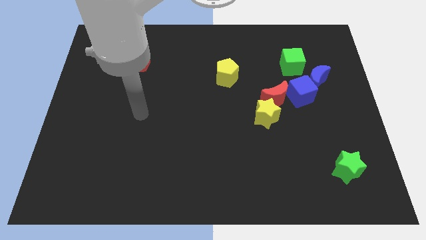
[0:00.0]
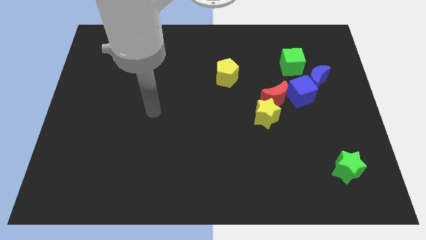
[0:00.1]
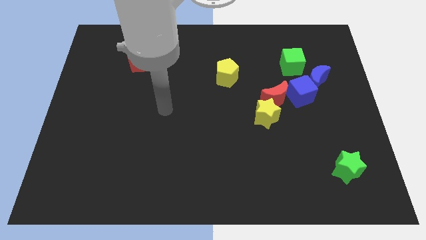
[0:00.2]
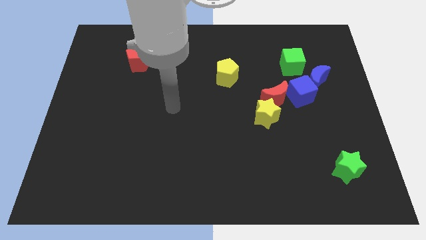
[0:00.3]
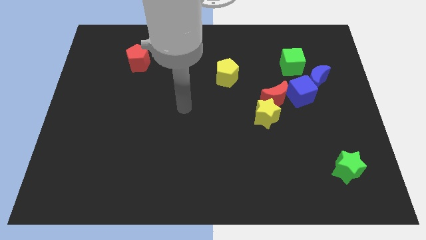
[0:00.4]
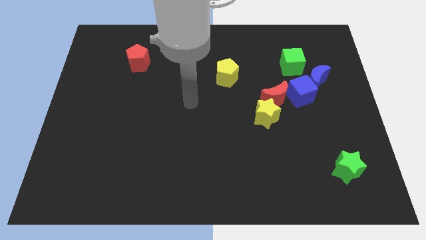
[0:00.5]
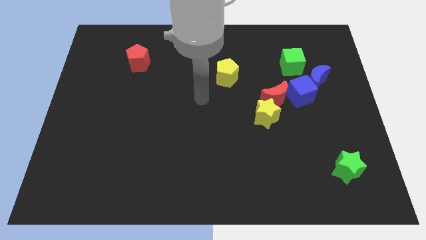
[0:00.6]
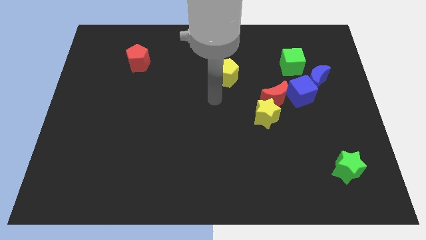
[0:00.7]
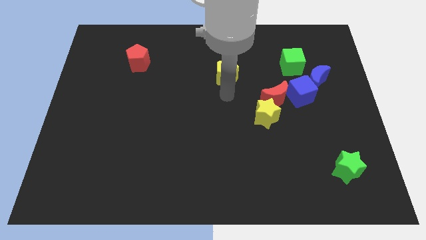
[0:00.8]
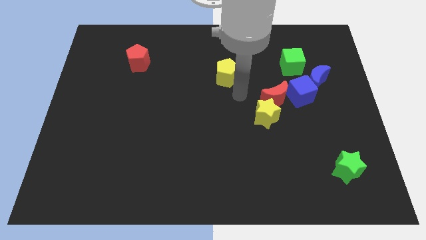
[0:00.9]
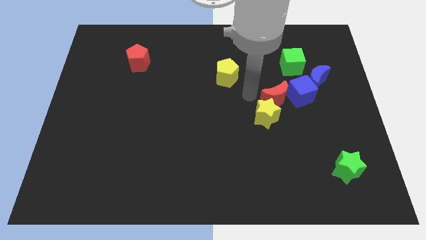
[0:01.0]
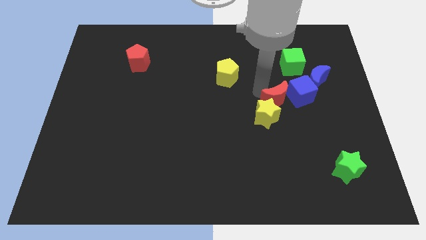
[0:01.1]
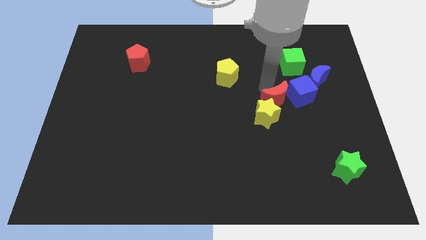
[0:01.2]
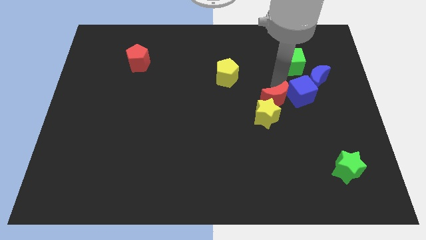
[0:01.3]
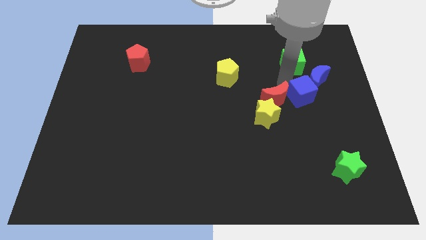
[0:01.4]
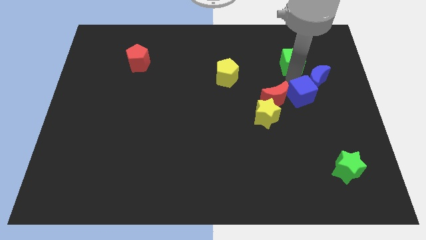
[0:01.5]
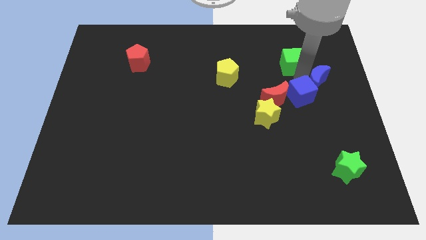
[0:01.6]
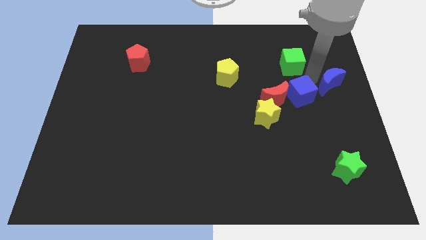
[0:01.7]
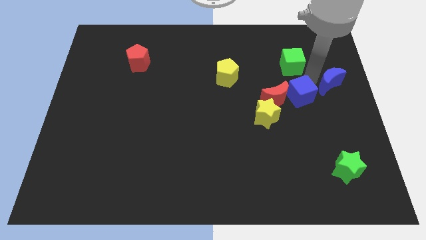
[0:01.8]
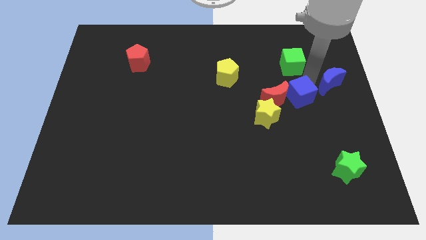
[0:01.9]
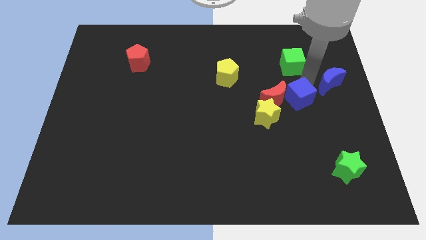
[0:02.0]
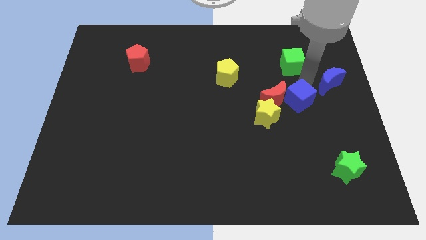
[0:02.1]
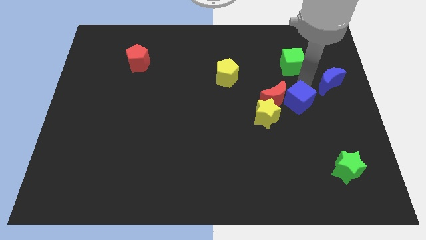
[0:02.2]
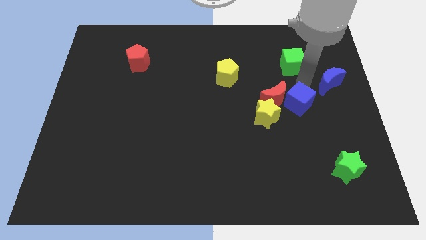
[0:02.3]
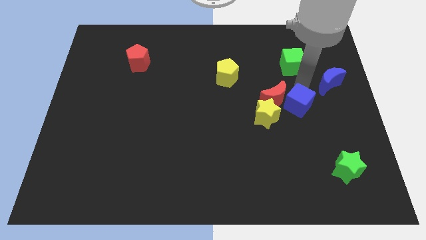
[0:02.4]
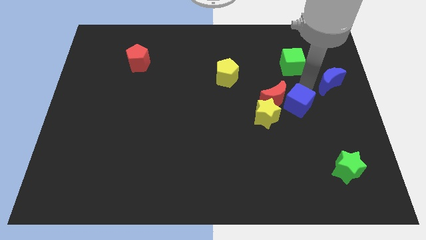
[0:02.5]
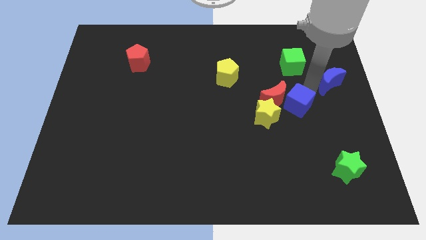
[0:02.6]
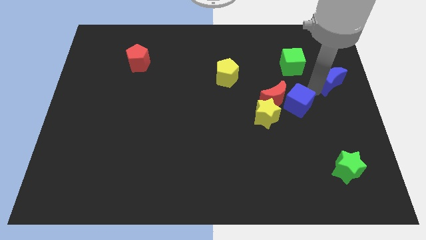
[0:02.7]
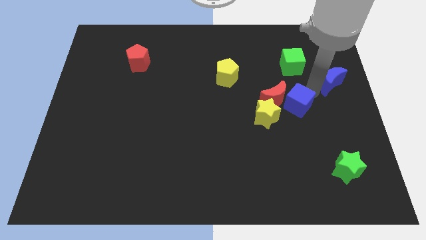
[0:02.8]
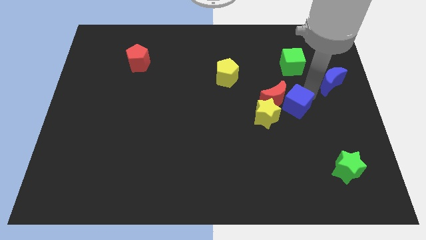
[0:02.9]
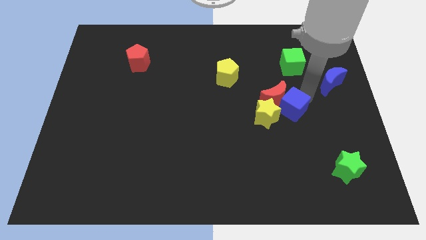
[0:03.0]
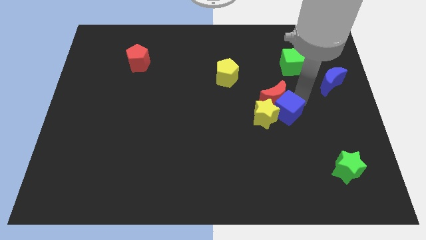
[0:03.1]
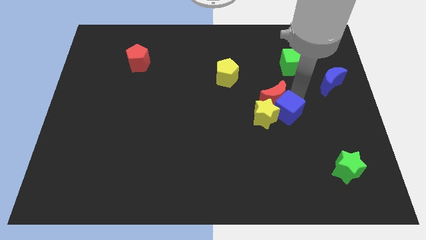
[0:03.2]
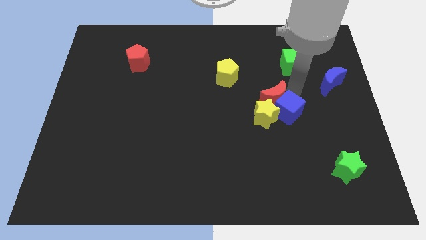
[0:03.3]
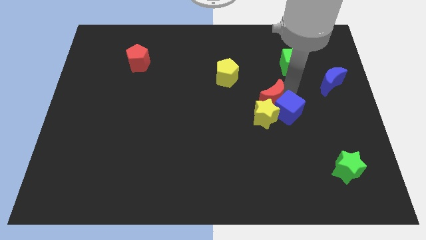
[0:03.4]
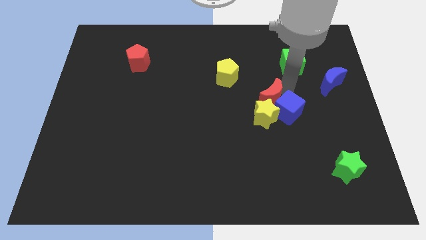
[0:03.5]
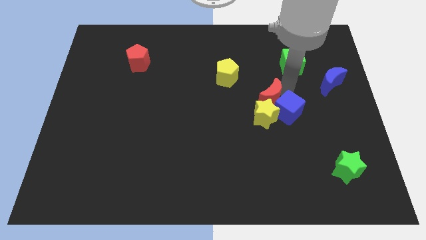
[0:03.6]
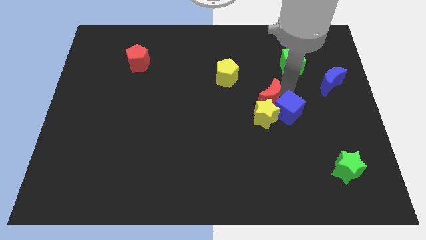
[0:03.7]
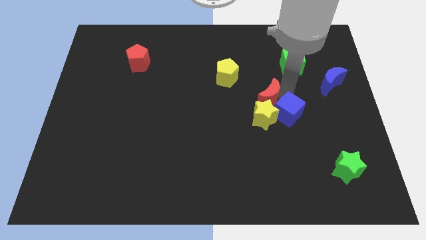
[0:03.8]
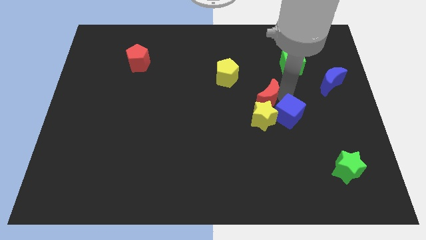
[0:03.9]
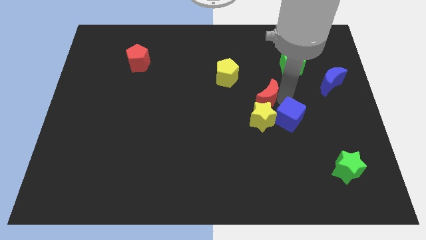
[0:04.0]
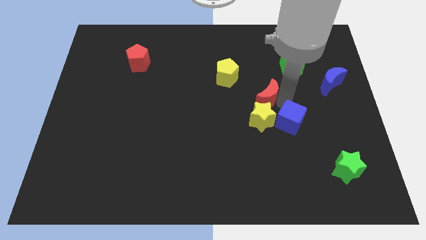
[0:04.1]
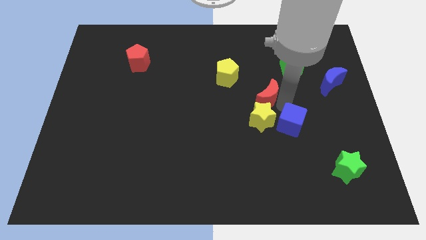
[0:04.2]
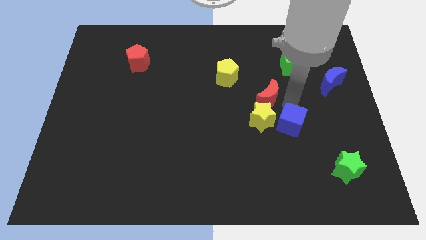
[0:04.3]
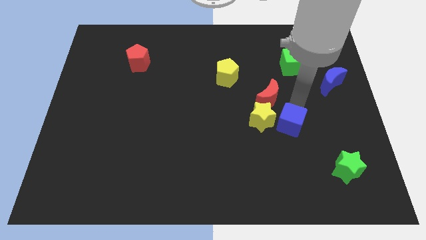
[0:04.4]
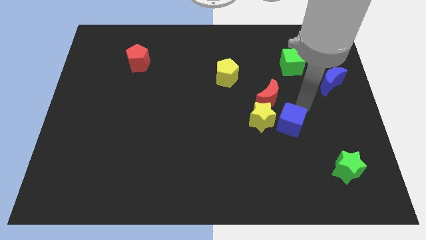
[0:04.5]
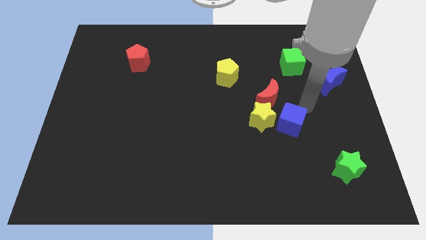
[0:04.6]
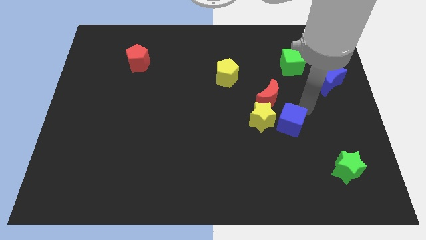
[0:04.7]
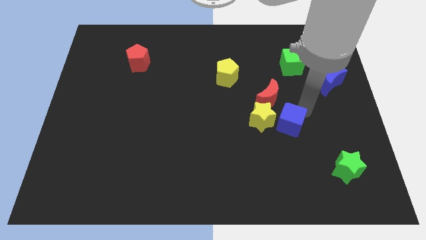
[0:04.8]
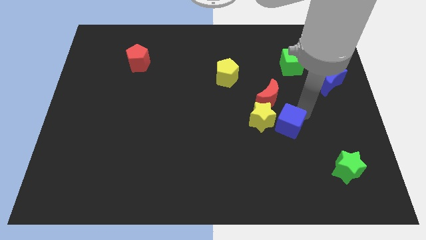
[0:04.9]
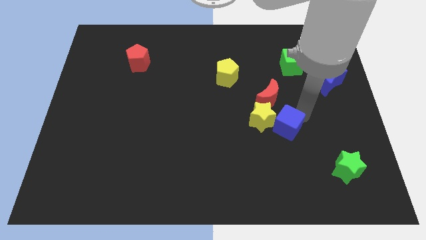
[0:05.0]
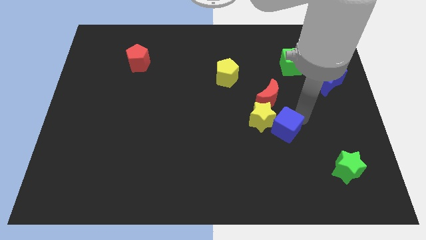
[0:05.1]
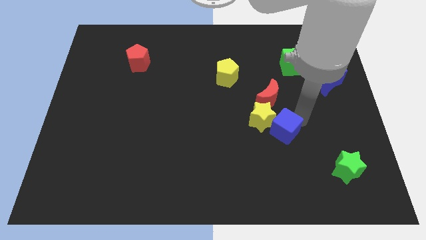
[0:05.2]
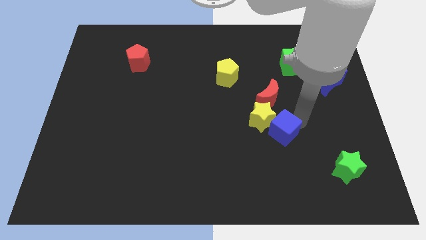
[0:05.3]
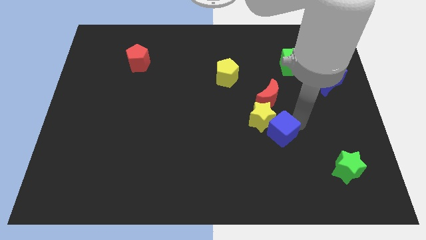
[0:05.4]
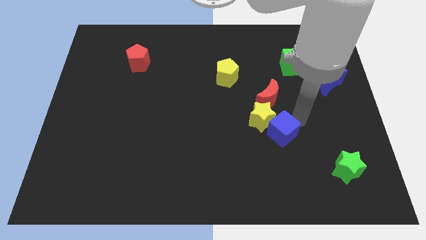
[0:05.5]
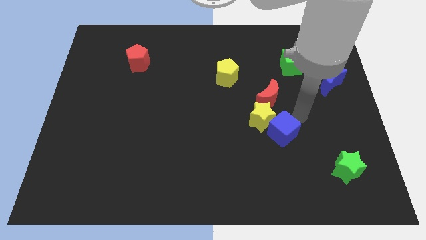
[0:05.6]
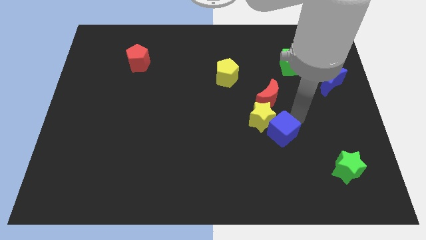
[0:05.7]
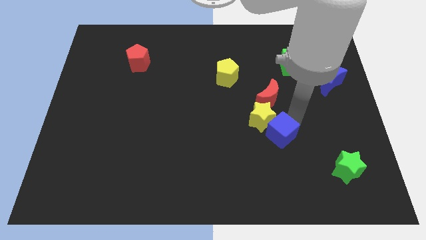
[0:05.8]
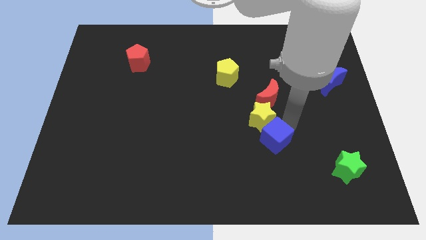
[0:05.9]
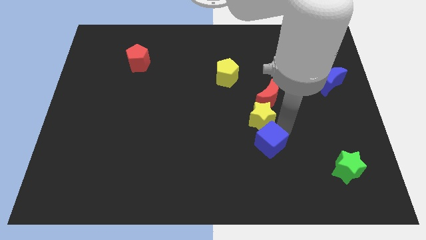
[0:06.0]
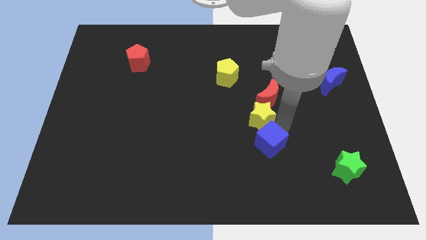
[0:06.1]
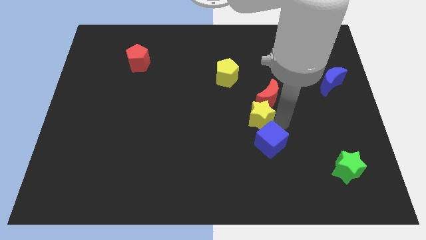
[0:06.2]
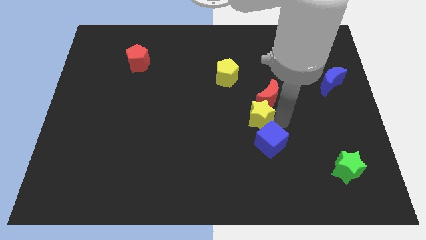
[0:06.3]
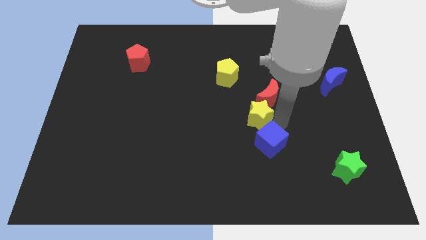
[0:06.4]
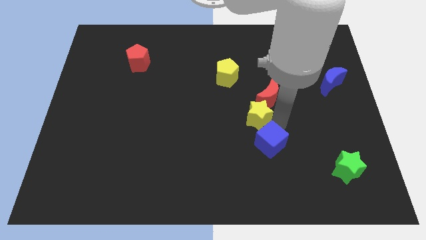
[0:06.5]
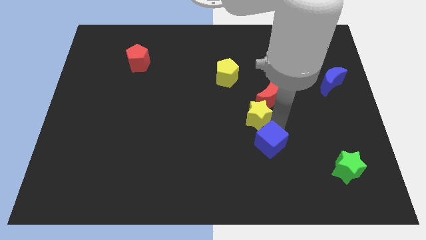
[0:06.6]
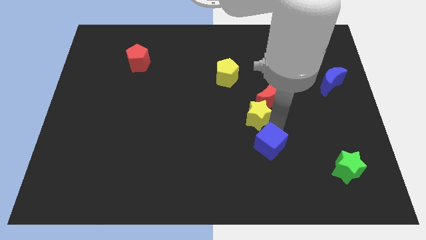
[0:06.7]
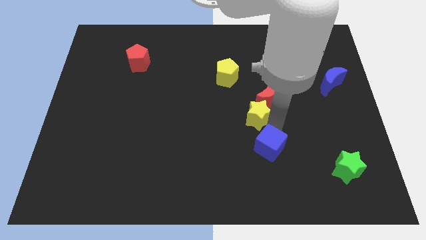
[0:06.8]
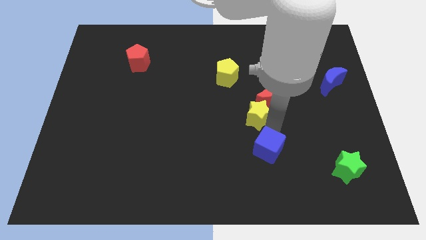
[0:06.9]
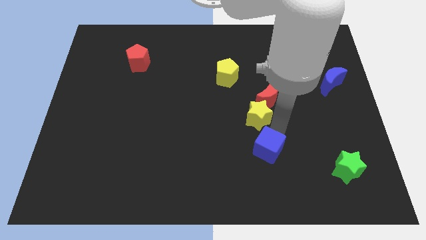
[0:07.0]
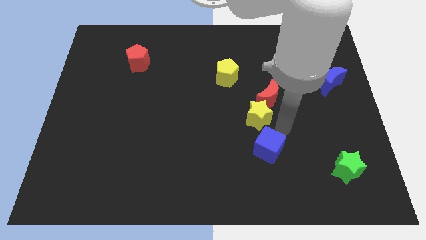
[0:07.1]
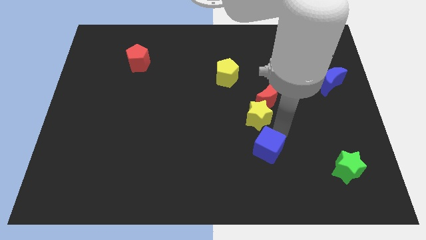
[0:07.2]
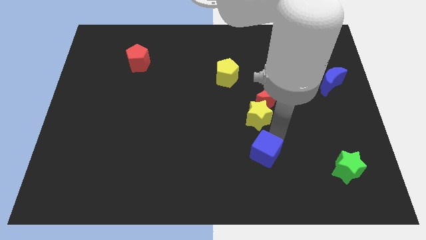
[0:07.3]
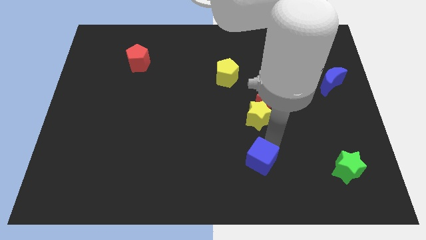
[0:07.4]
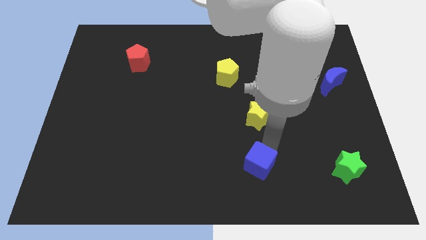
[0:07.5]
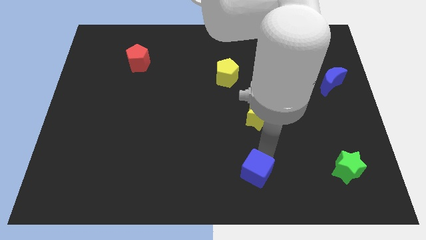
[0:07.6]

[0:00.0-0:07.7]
put the blue cube to the bottom side
